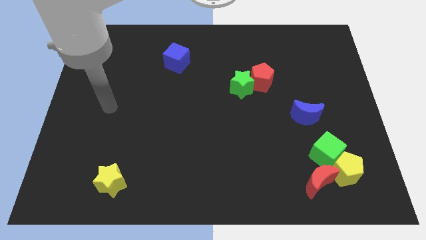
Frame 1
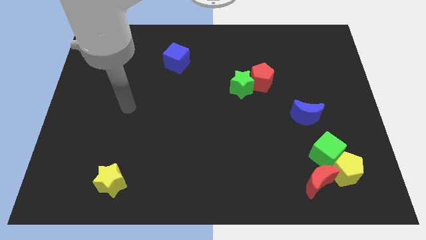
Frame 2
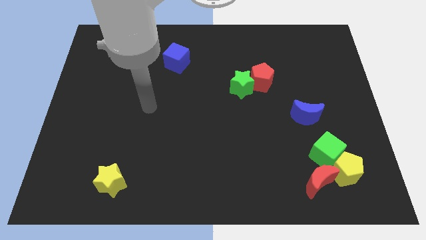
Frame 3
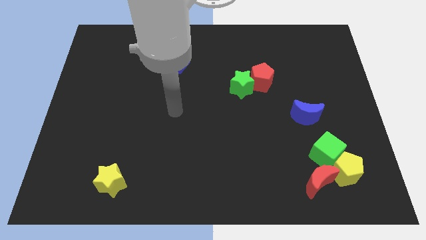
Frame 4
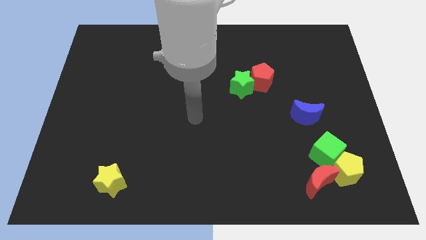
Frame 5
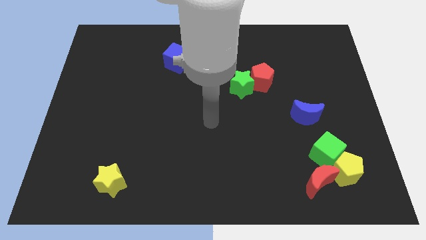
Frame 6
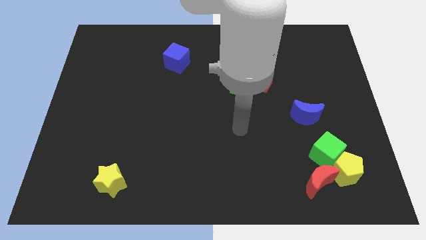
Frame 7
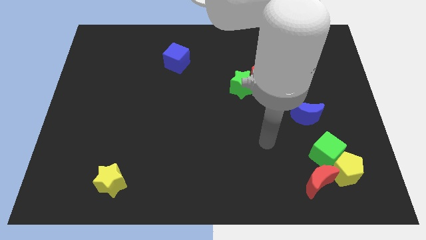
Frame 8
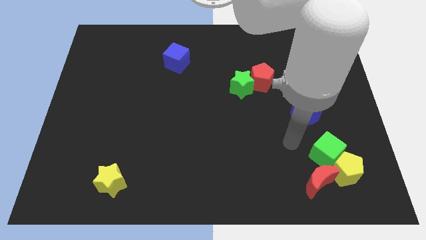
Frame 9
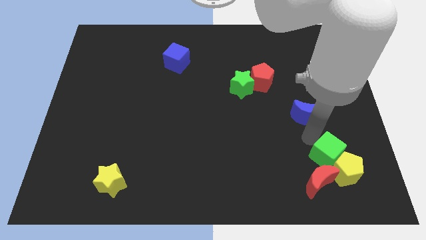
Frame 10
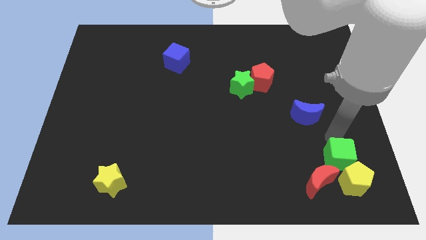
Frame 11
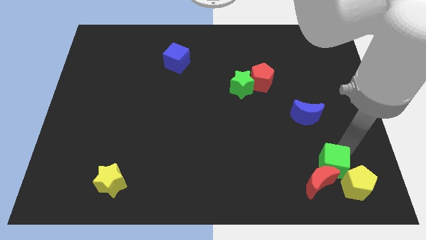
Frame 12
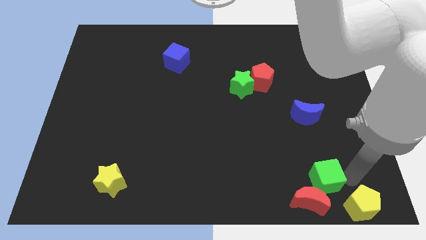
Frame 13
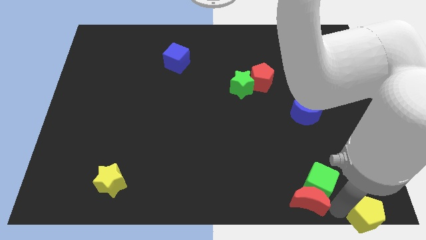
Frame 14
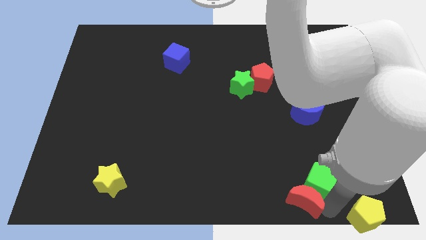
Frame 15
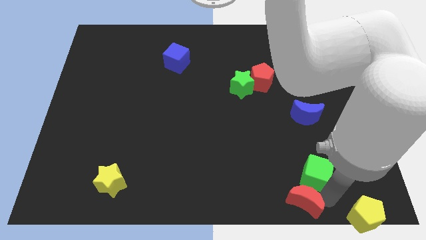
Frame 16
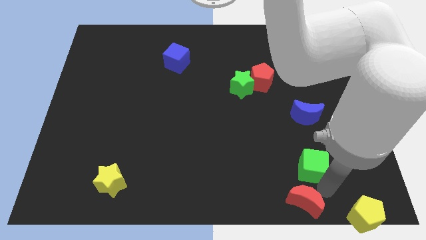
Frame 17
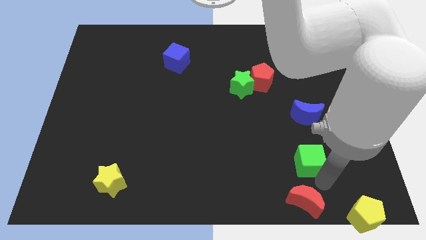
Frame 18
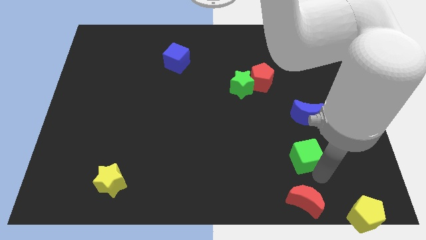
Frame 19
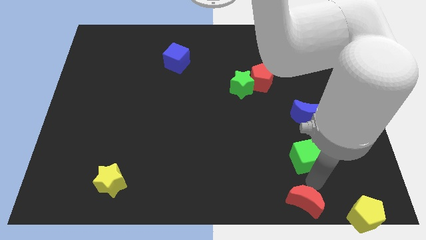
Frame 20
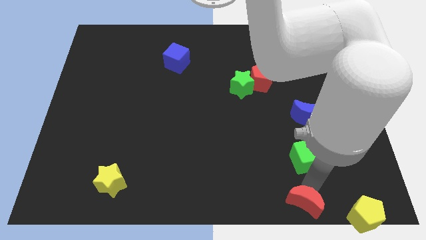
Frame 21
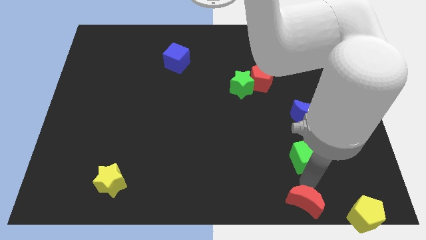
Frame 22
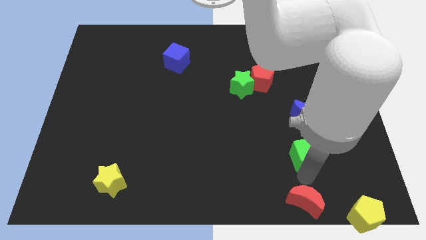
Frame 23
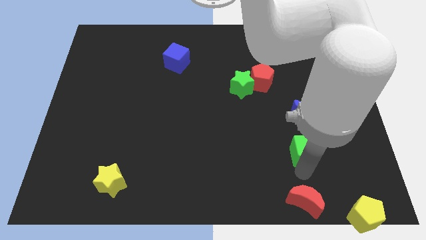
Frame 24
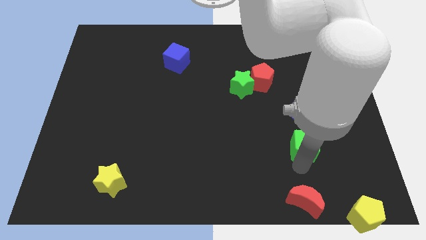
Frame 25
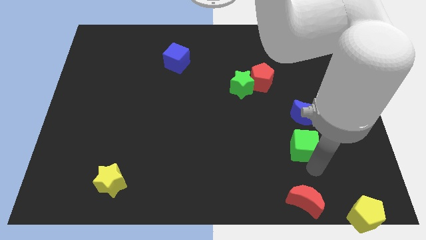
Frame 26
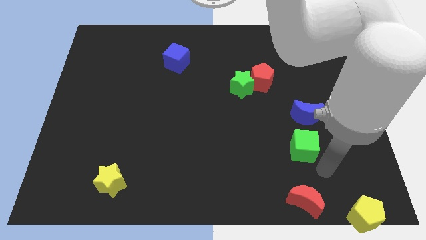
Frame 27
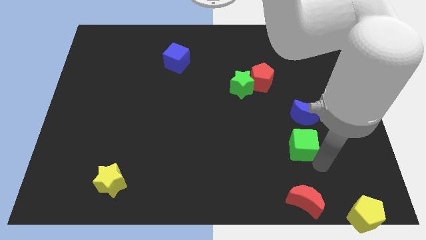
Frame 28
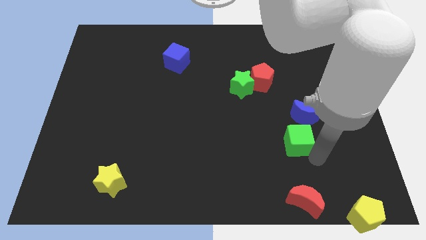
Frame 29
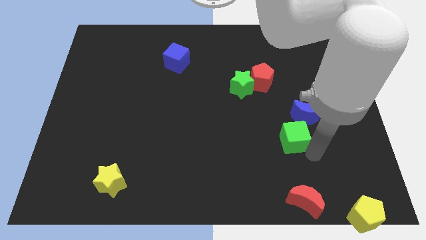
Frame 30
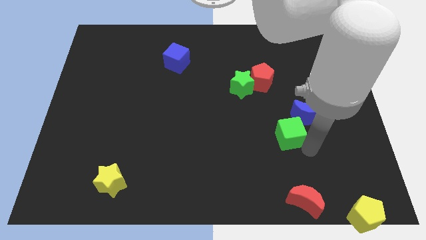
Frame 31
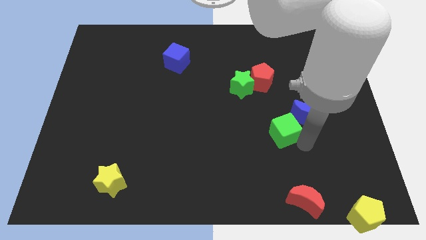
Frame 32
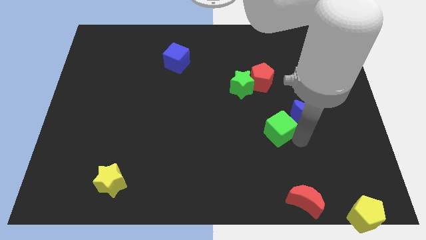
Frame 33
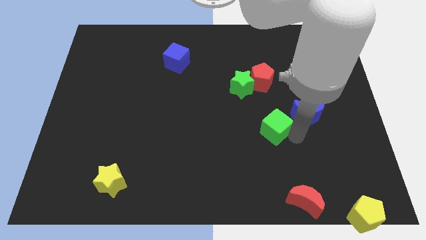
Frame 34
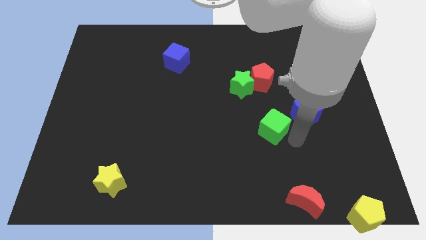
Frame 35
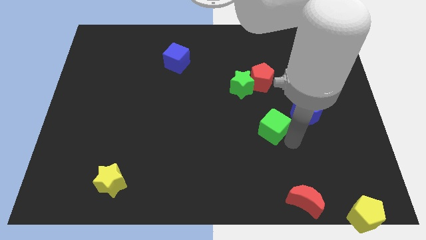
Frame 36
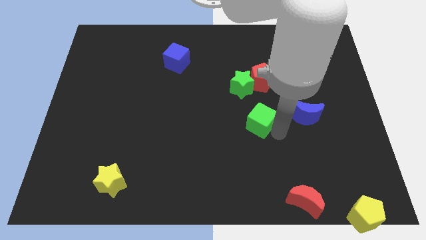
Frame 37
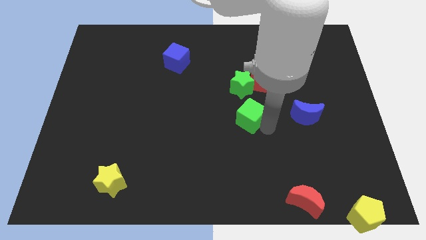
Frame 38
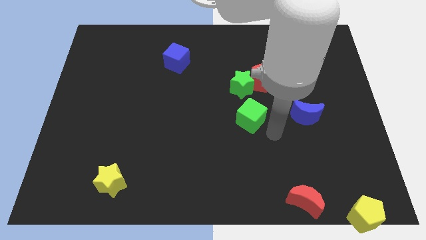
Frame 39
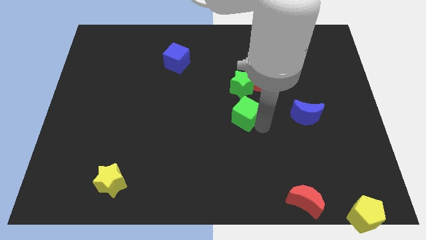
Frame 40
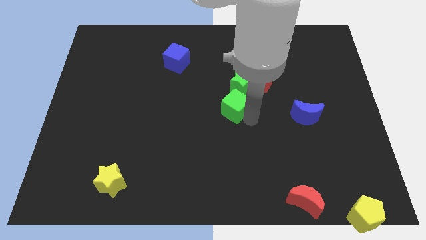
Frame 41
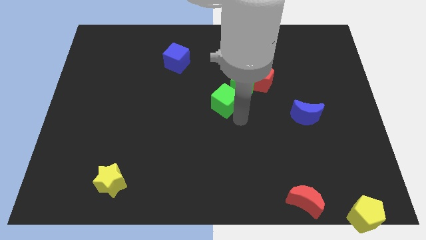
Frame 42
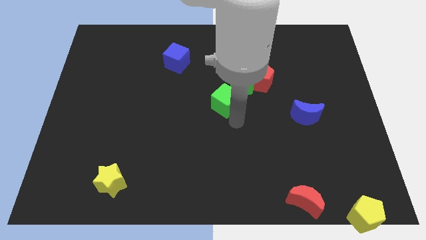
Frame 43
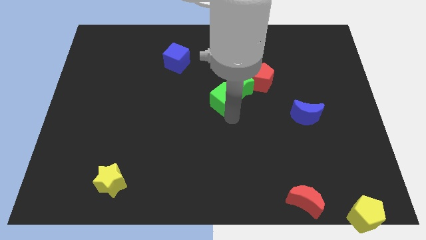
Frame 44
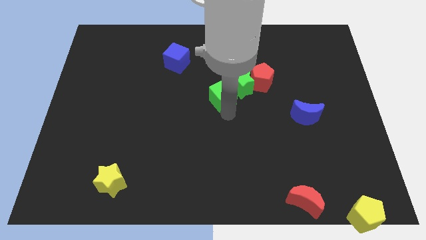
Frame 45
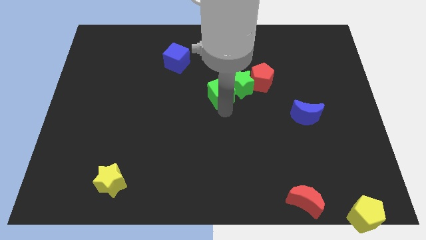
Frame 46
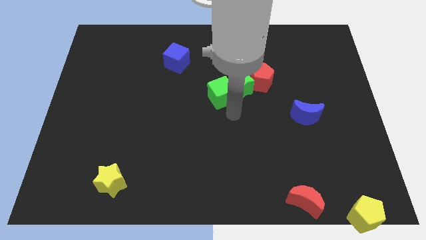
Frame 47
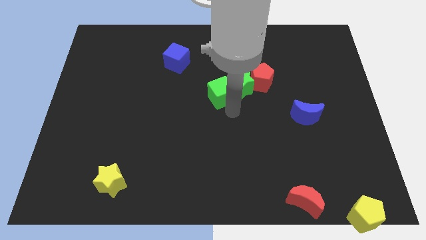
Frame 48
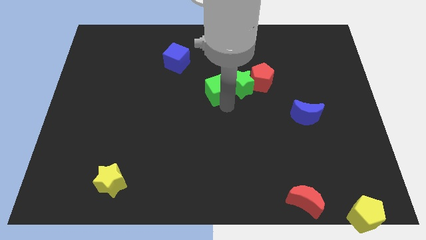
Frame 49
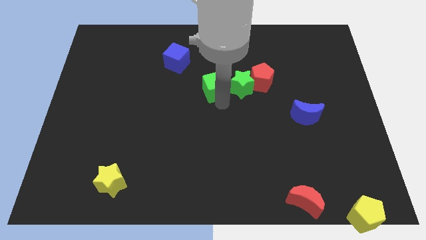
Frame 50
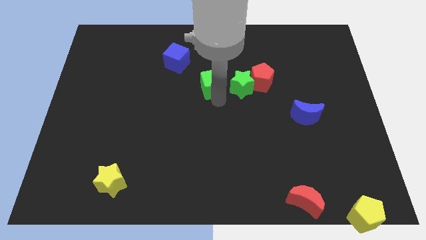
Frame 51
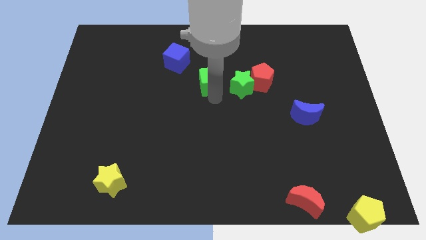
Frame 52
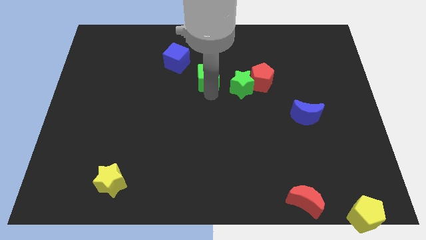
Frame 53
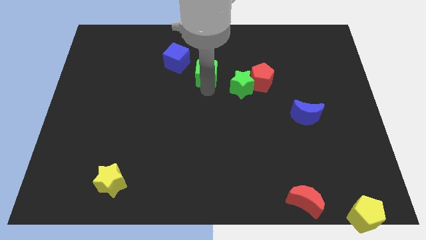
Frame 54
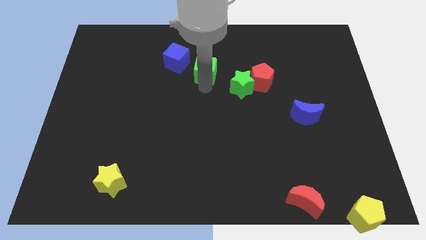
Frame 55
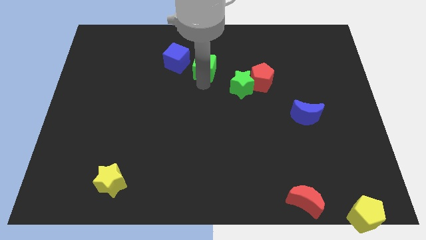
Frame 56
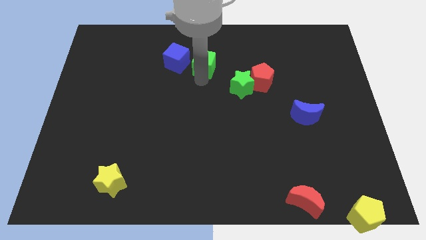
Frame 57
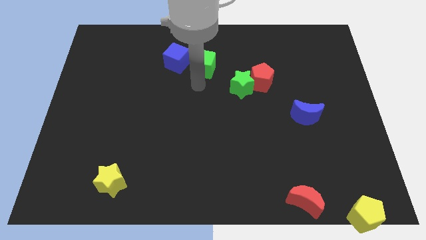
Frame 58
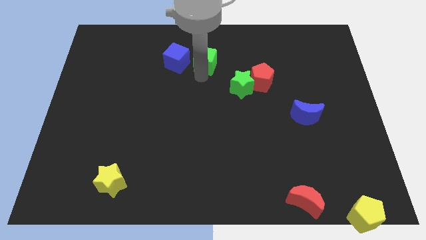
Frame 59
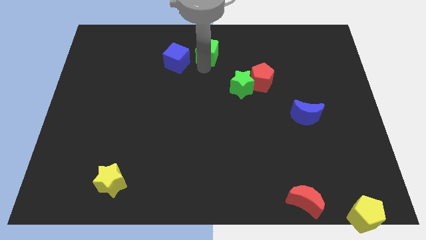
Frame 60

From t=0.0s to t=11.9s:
slide the green cube to the top
